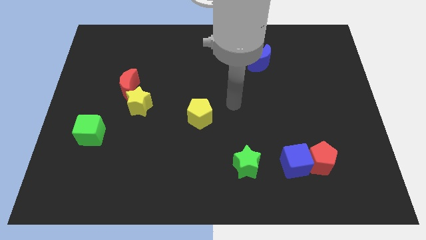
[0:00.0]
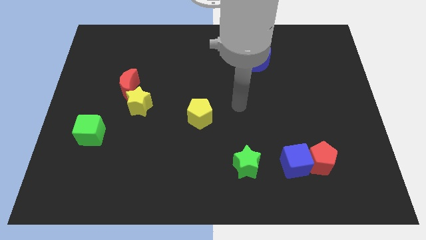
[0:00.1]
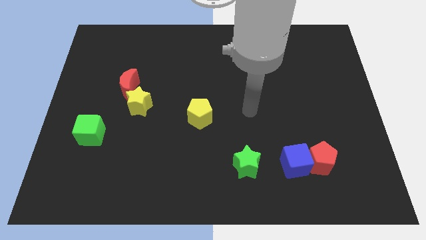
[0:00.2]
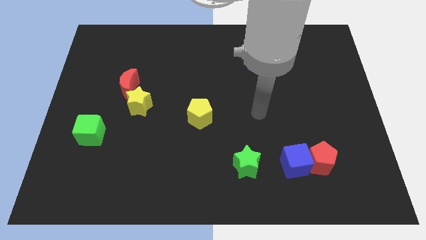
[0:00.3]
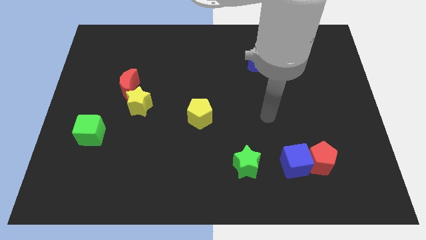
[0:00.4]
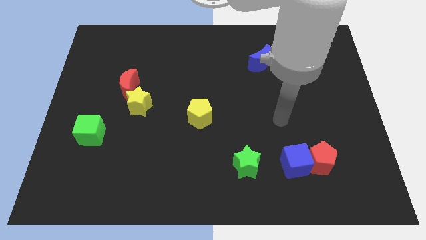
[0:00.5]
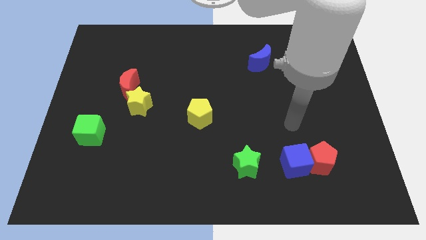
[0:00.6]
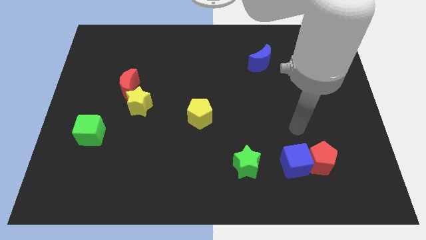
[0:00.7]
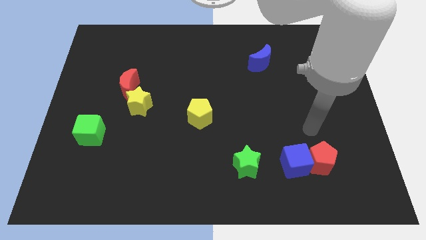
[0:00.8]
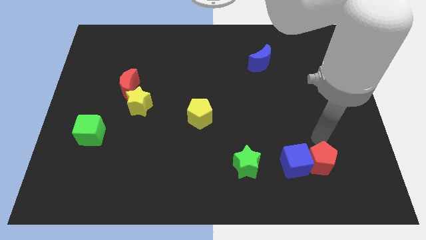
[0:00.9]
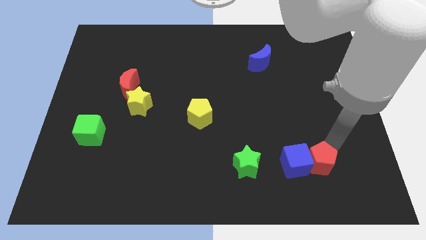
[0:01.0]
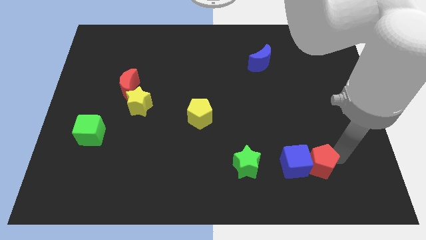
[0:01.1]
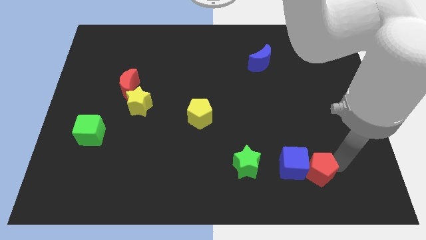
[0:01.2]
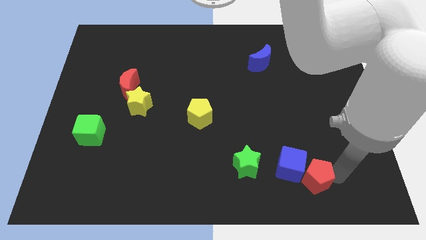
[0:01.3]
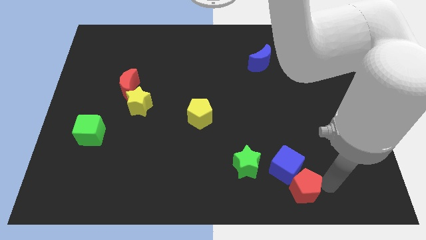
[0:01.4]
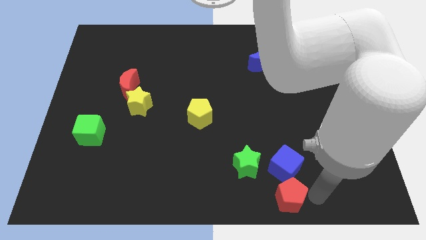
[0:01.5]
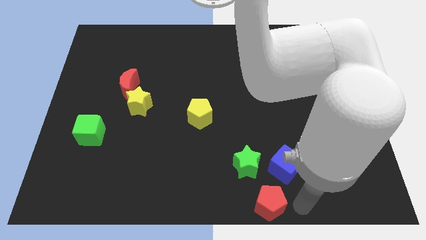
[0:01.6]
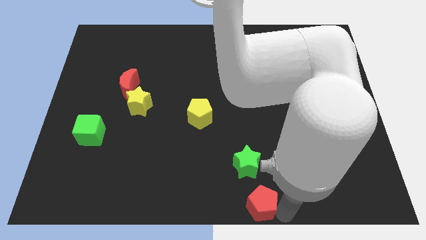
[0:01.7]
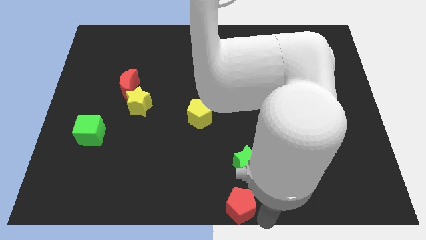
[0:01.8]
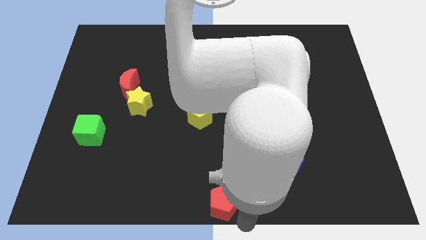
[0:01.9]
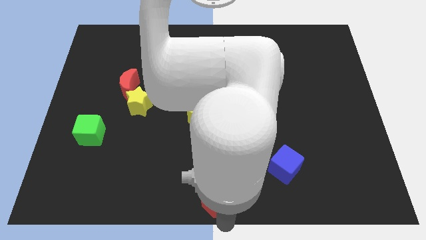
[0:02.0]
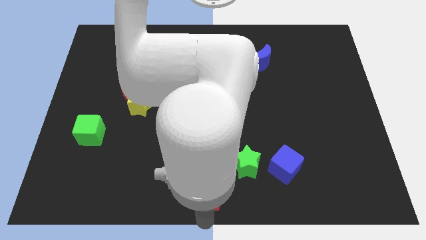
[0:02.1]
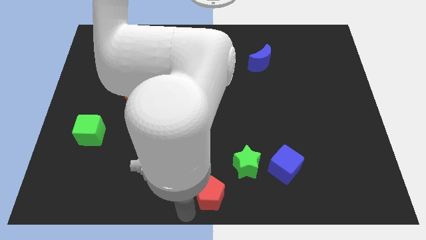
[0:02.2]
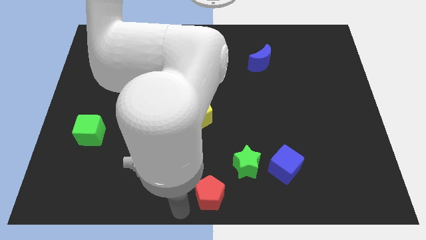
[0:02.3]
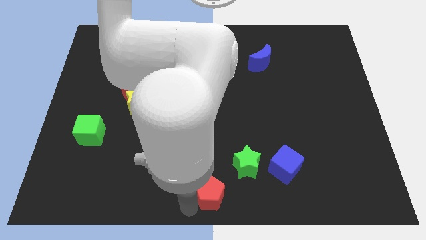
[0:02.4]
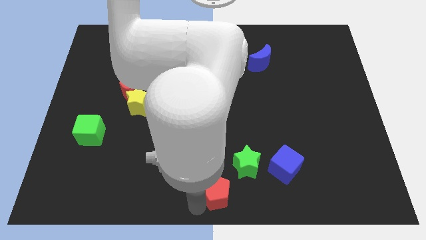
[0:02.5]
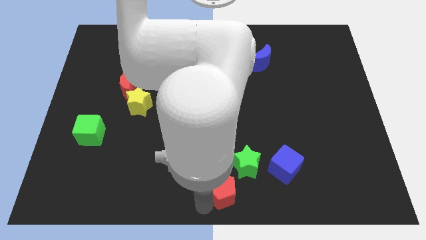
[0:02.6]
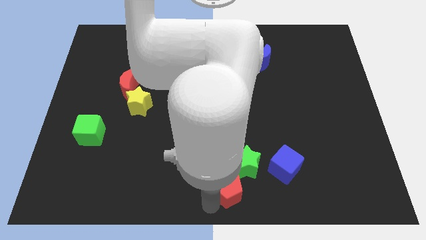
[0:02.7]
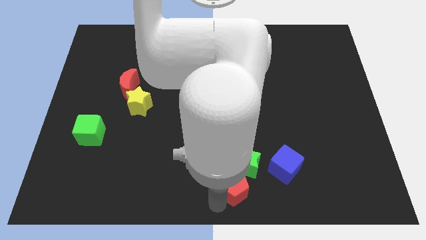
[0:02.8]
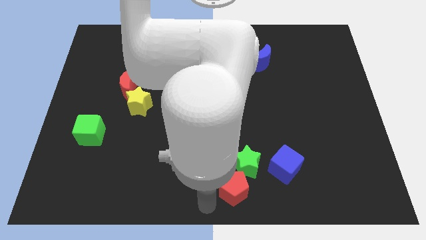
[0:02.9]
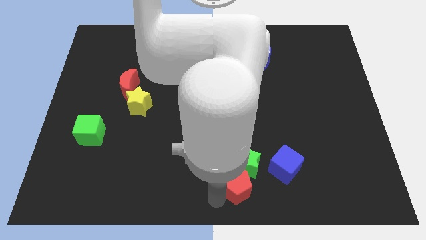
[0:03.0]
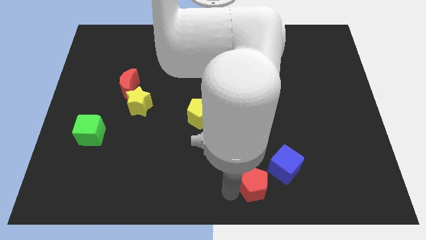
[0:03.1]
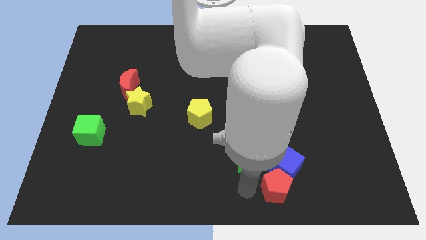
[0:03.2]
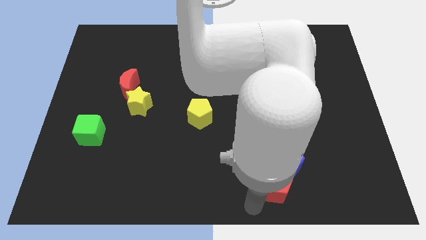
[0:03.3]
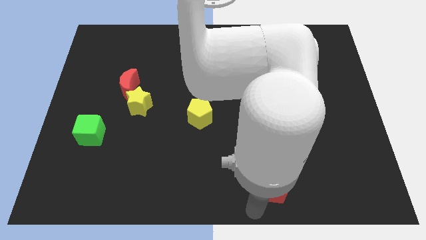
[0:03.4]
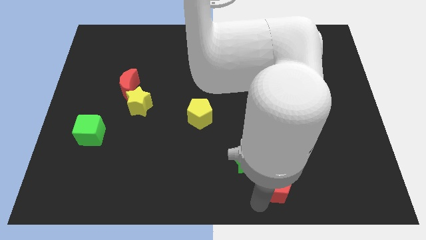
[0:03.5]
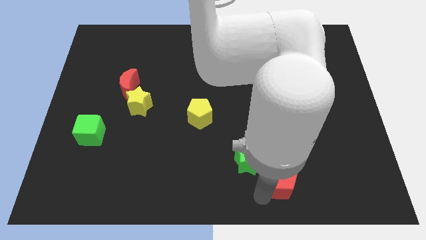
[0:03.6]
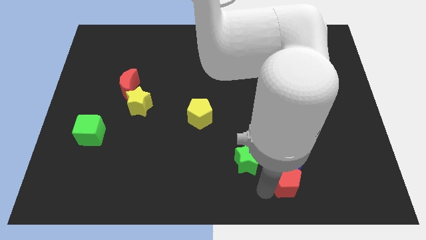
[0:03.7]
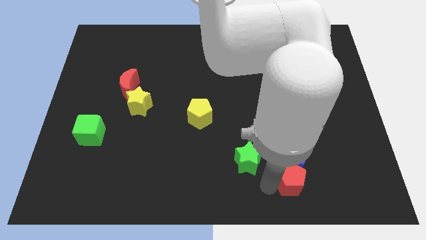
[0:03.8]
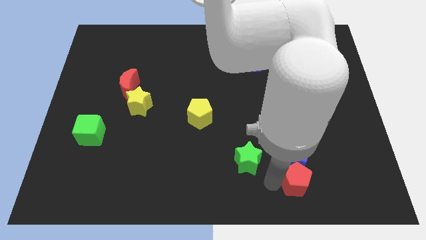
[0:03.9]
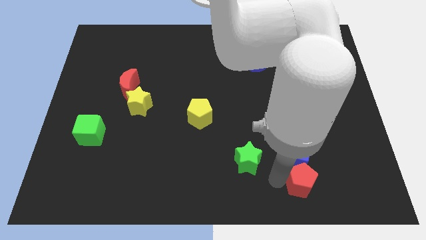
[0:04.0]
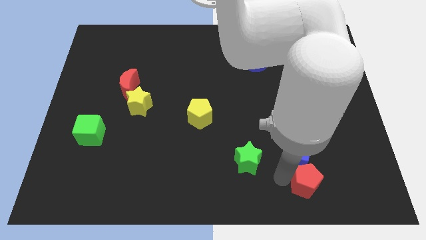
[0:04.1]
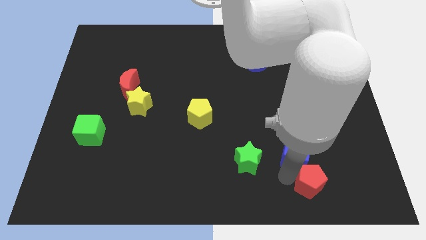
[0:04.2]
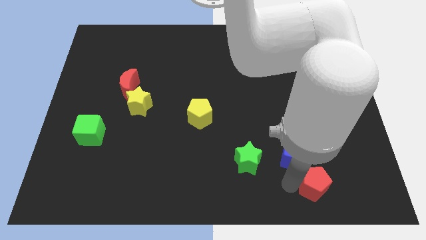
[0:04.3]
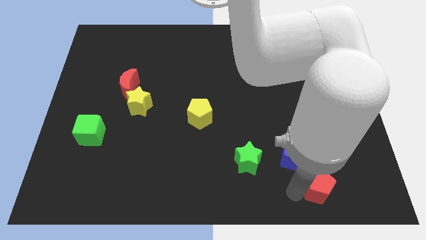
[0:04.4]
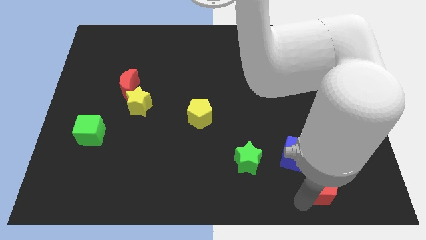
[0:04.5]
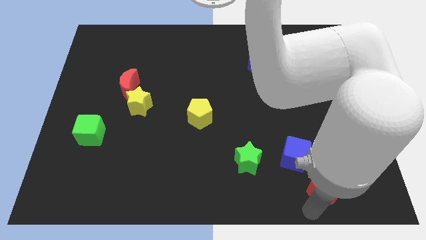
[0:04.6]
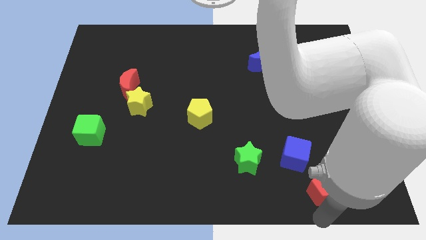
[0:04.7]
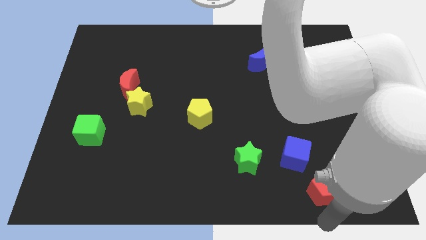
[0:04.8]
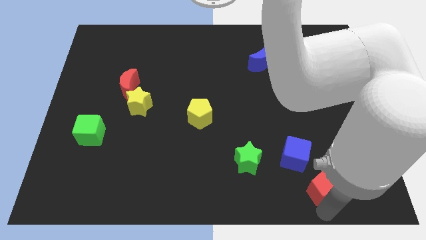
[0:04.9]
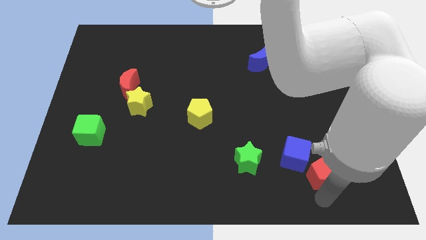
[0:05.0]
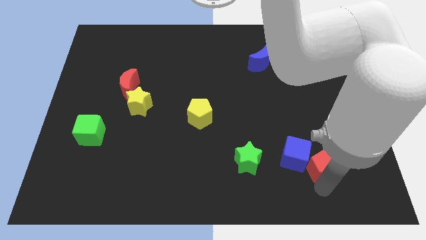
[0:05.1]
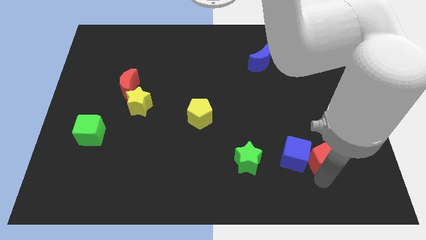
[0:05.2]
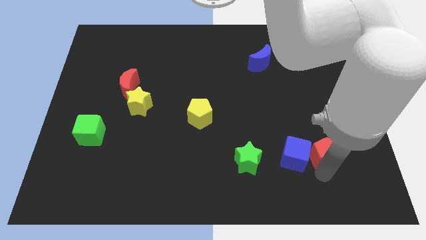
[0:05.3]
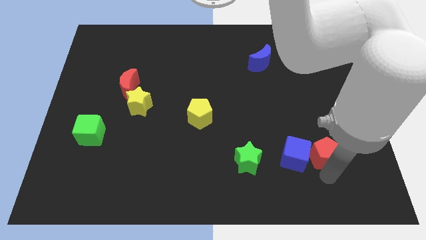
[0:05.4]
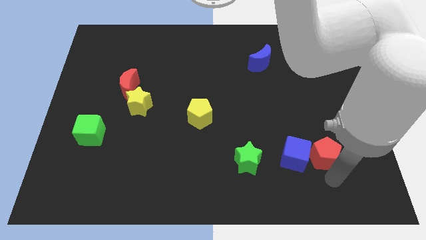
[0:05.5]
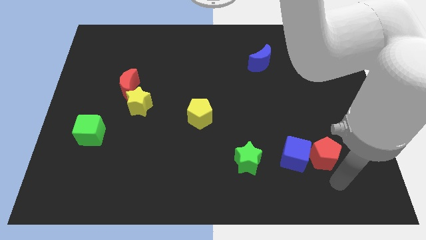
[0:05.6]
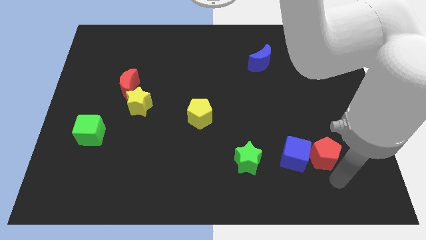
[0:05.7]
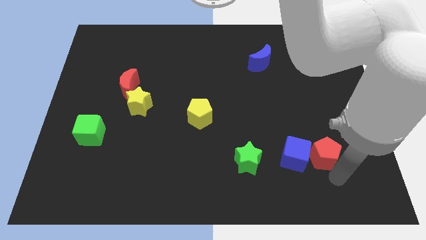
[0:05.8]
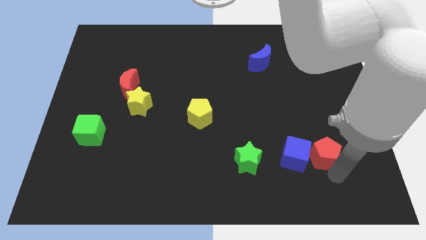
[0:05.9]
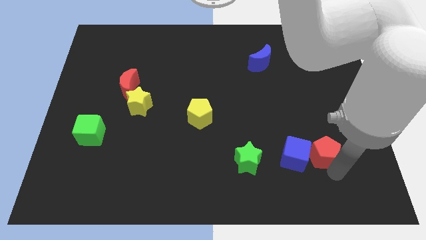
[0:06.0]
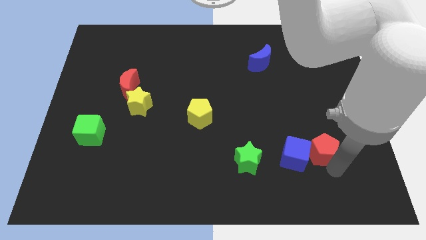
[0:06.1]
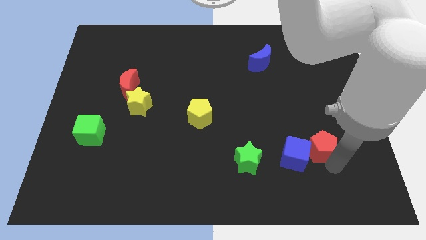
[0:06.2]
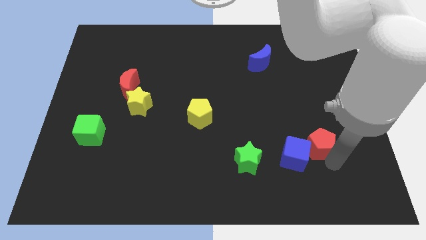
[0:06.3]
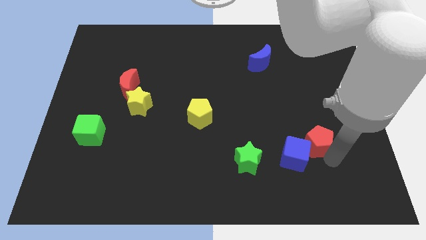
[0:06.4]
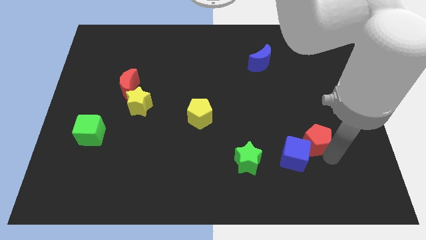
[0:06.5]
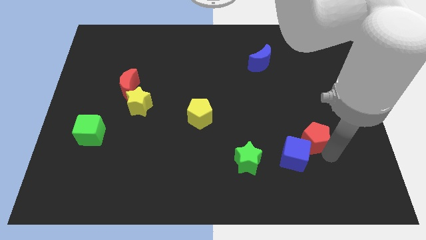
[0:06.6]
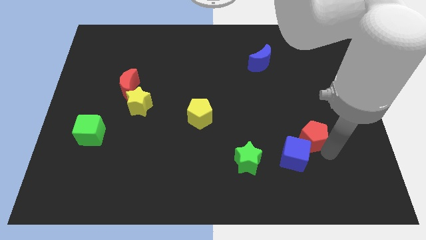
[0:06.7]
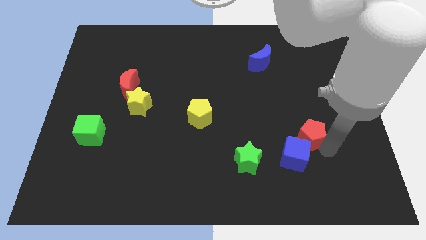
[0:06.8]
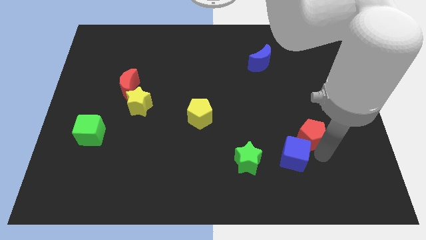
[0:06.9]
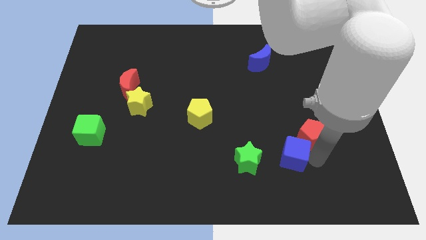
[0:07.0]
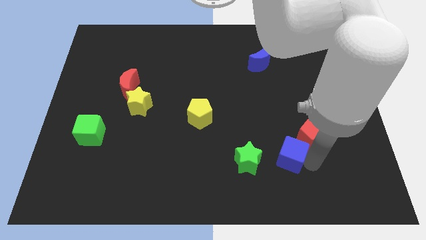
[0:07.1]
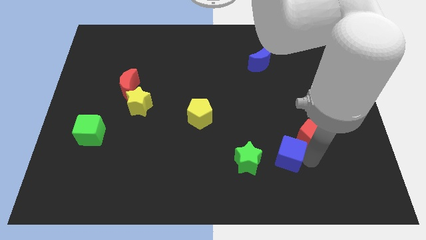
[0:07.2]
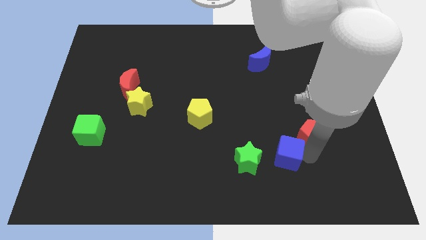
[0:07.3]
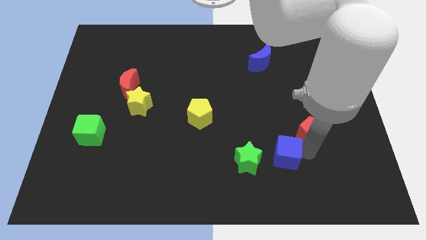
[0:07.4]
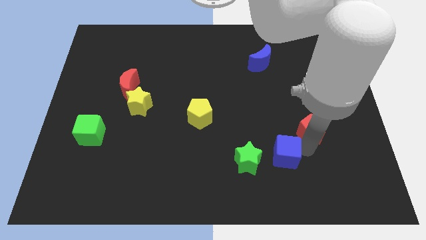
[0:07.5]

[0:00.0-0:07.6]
slide the red pentagon up somewhat
